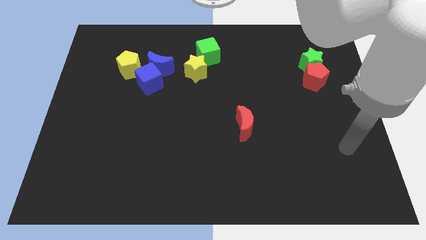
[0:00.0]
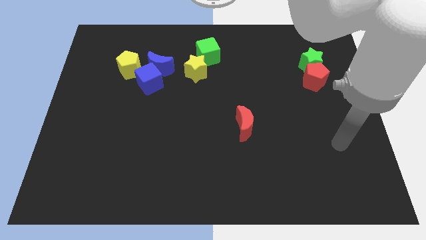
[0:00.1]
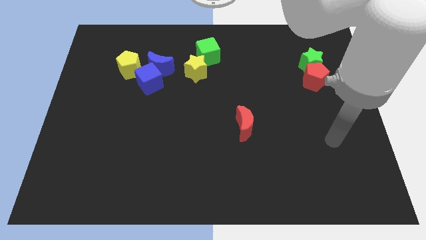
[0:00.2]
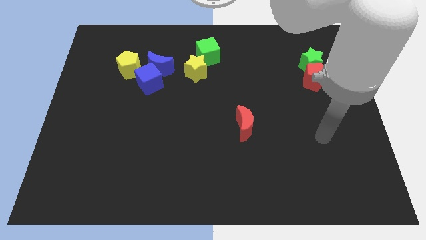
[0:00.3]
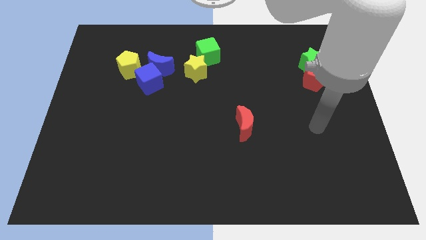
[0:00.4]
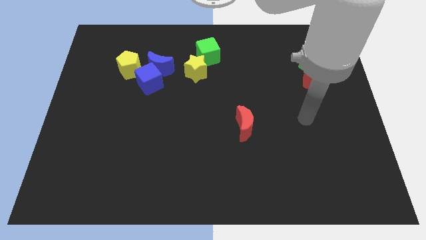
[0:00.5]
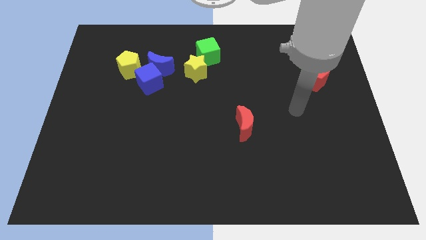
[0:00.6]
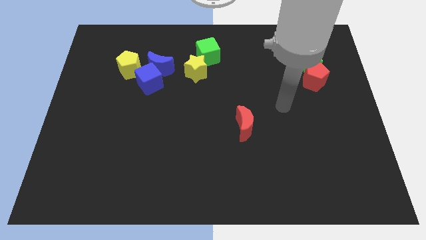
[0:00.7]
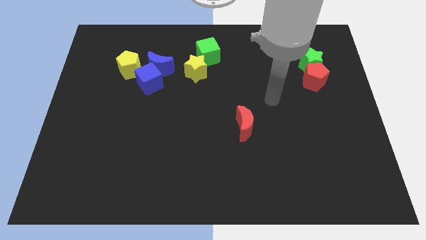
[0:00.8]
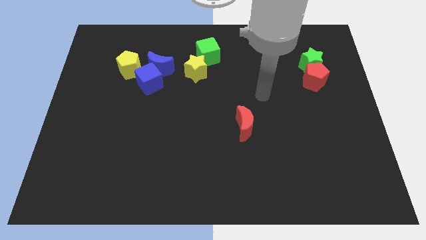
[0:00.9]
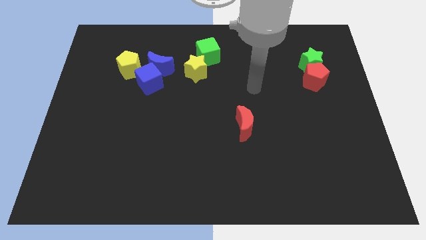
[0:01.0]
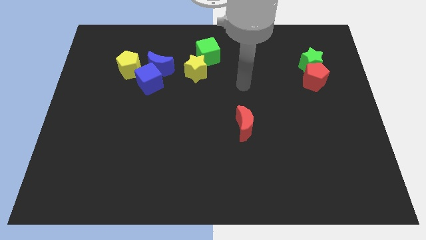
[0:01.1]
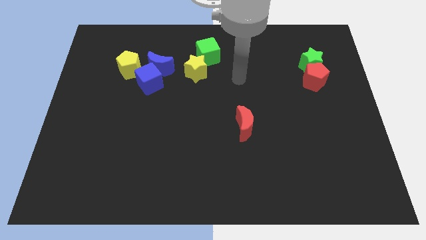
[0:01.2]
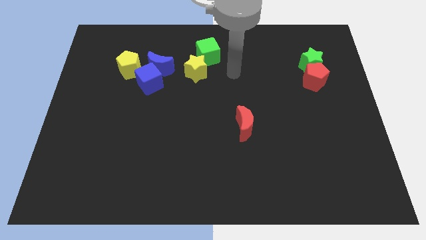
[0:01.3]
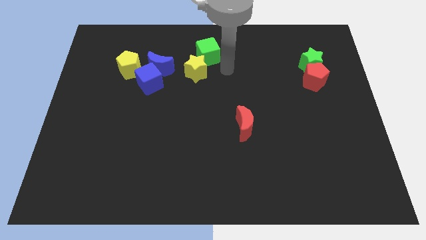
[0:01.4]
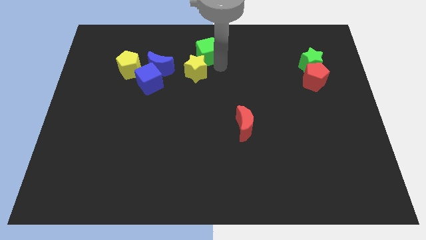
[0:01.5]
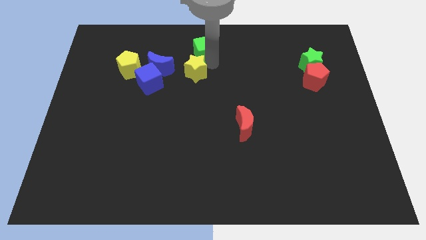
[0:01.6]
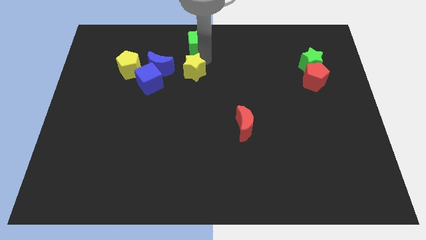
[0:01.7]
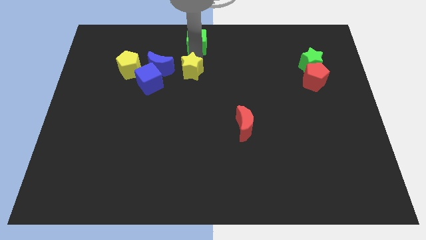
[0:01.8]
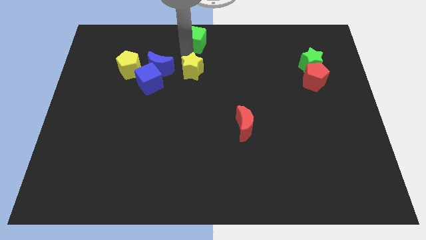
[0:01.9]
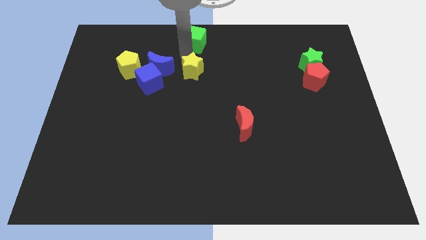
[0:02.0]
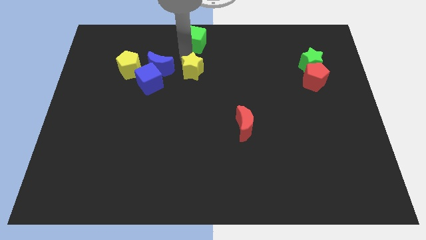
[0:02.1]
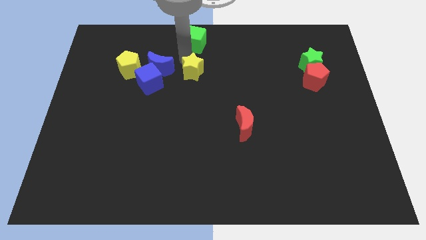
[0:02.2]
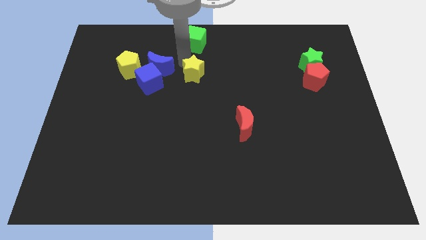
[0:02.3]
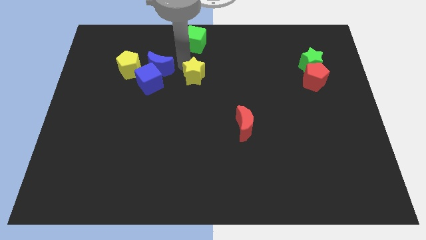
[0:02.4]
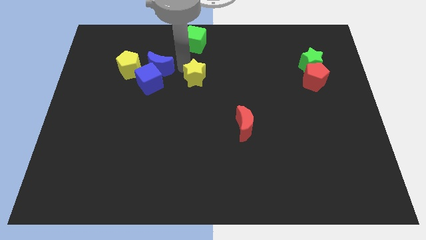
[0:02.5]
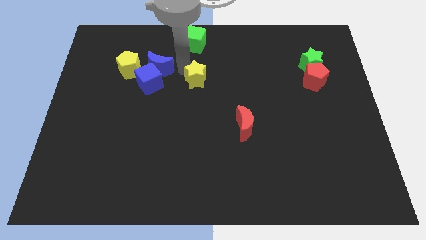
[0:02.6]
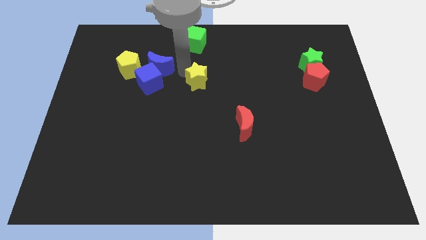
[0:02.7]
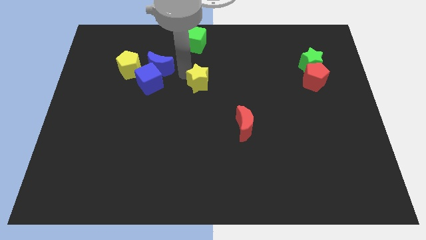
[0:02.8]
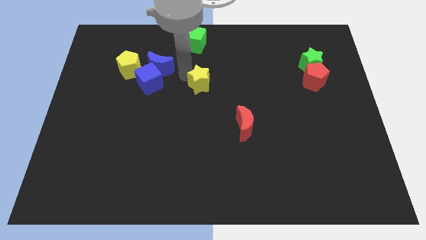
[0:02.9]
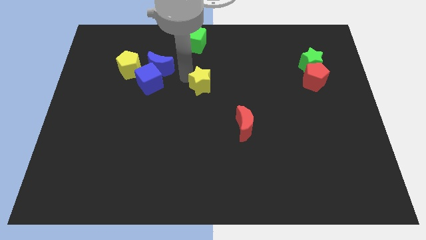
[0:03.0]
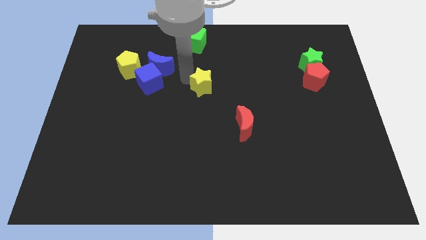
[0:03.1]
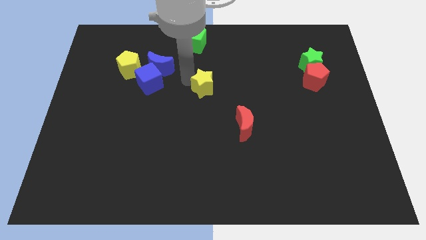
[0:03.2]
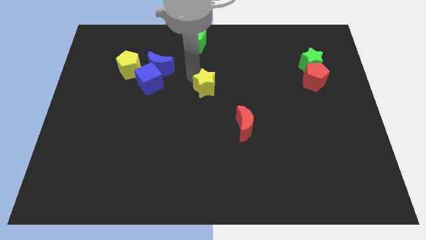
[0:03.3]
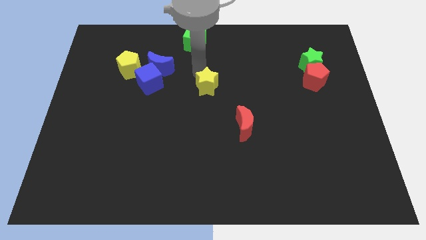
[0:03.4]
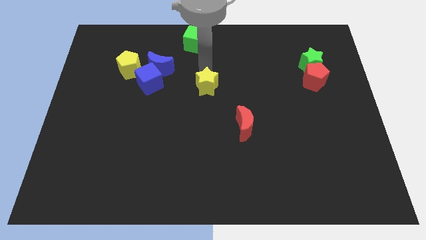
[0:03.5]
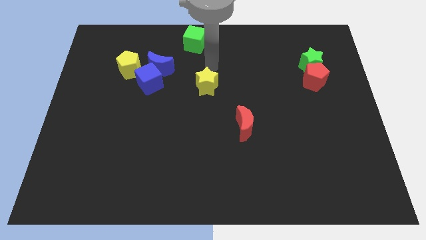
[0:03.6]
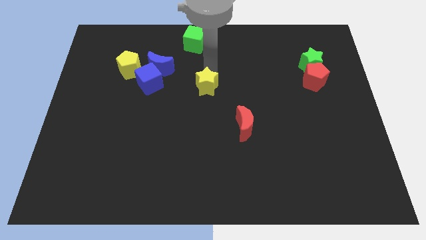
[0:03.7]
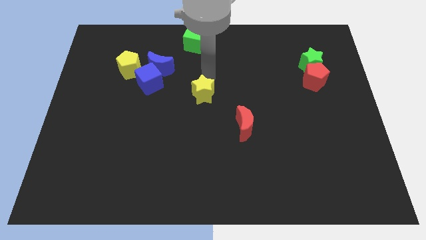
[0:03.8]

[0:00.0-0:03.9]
push the yellow star down a bit

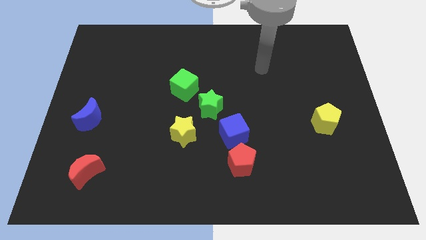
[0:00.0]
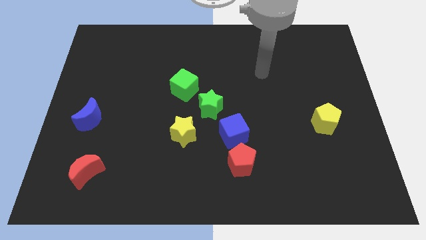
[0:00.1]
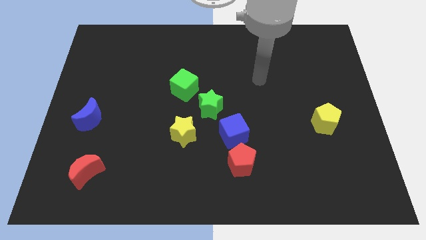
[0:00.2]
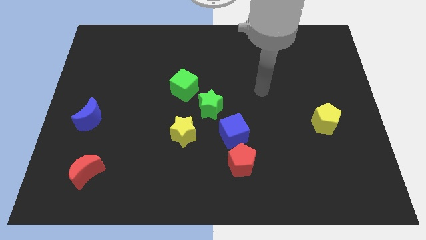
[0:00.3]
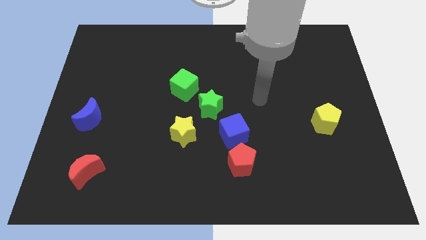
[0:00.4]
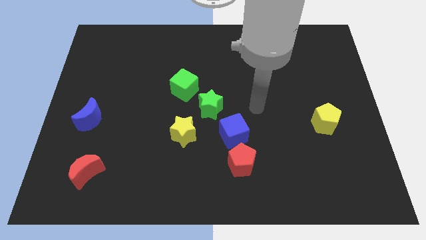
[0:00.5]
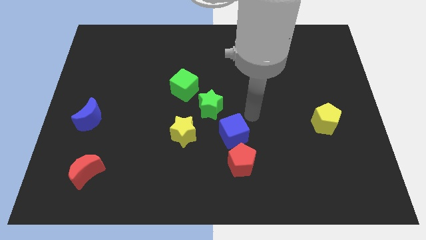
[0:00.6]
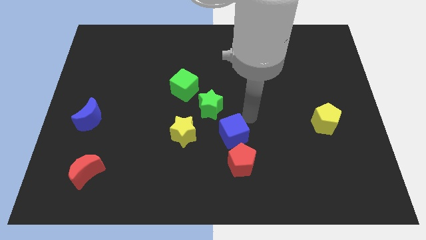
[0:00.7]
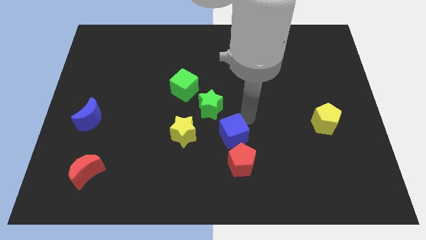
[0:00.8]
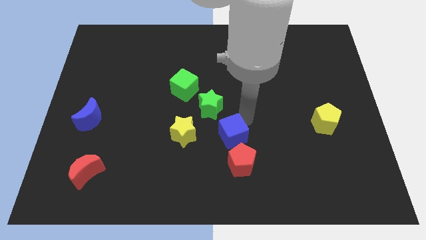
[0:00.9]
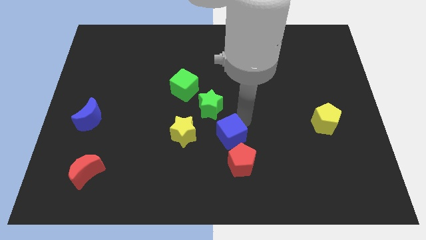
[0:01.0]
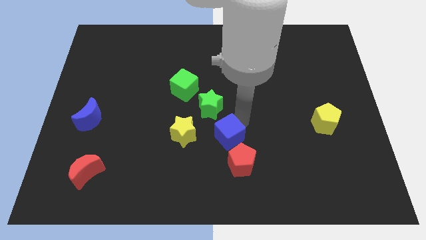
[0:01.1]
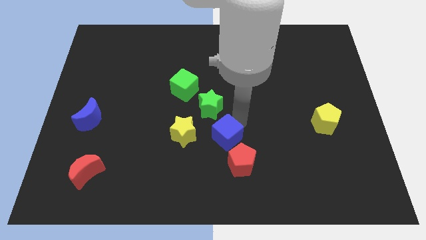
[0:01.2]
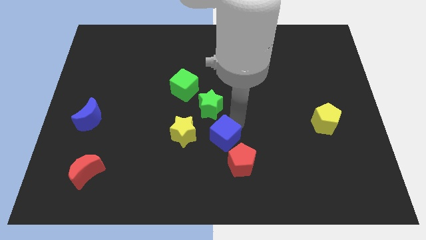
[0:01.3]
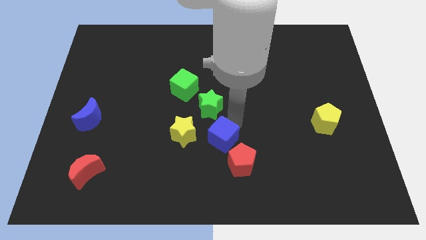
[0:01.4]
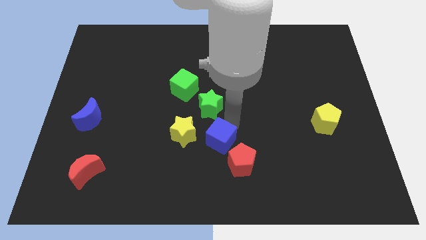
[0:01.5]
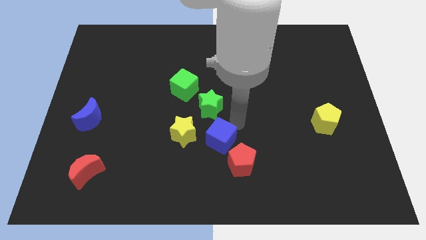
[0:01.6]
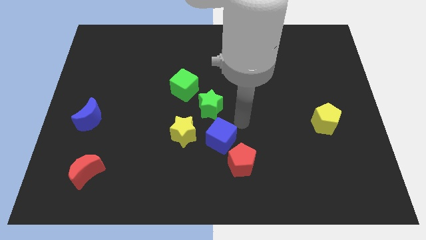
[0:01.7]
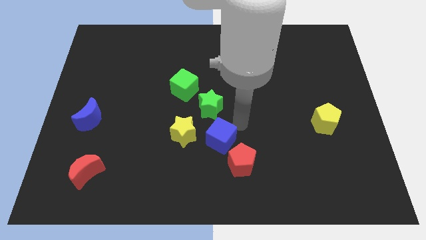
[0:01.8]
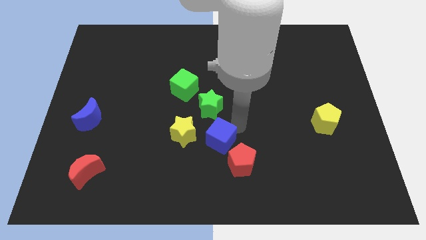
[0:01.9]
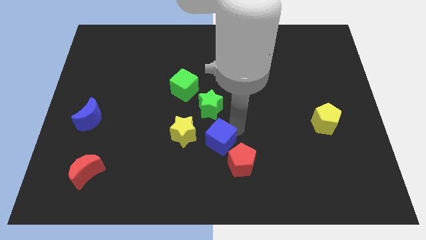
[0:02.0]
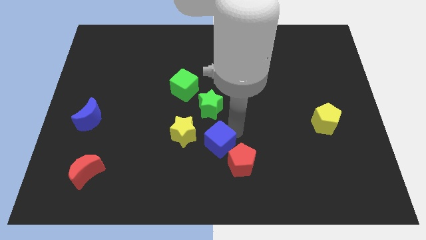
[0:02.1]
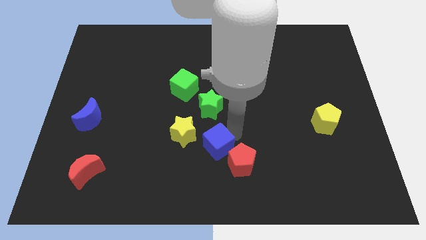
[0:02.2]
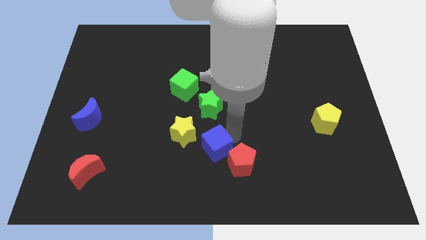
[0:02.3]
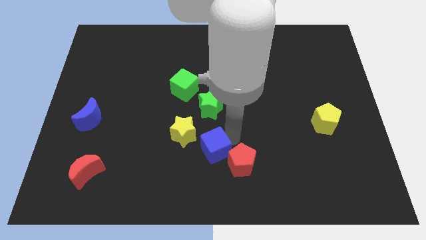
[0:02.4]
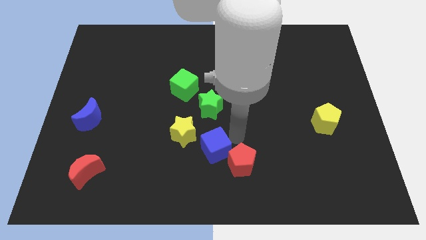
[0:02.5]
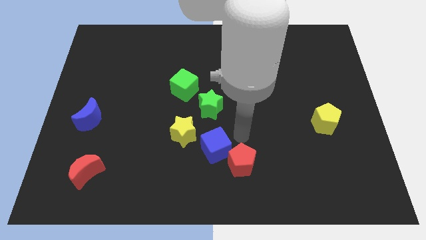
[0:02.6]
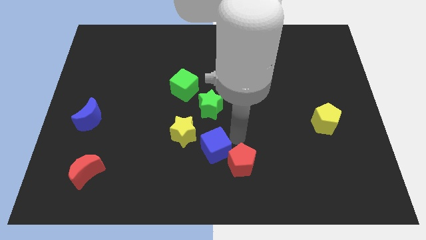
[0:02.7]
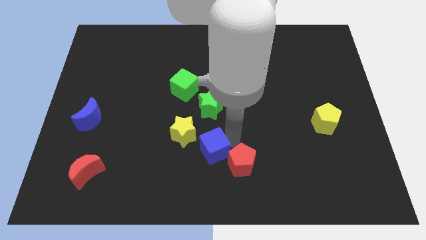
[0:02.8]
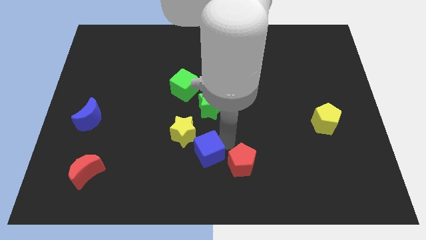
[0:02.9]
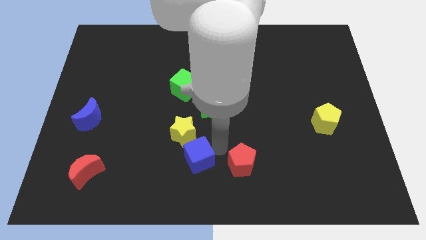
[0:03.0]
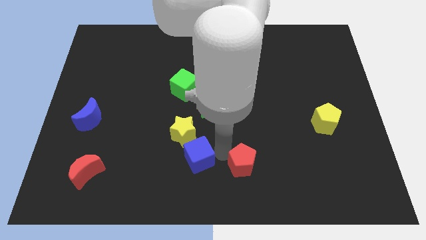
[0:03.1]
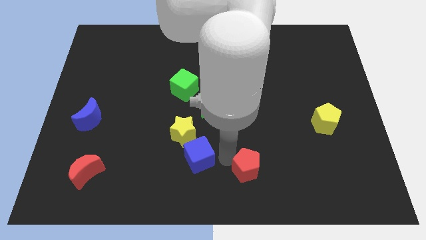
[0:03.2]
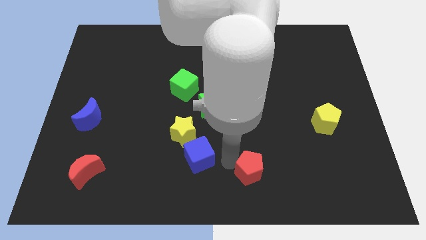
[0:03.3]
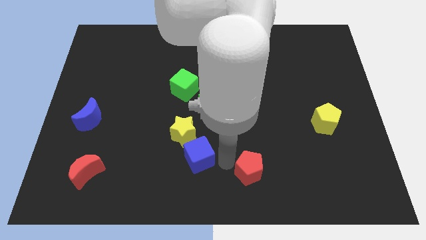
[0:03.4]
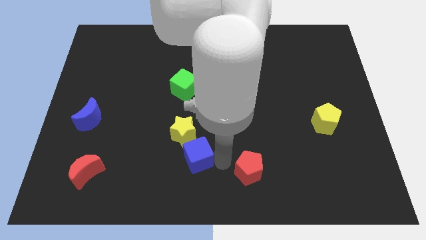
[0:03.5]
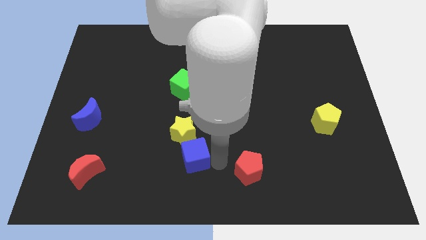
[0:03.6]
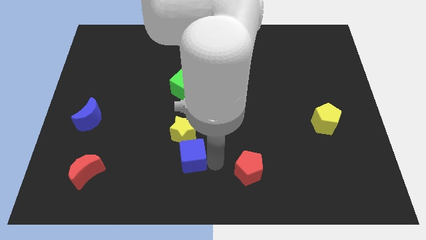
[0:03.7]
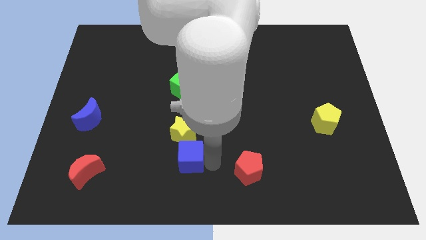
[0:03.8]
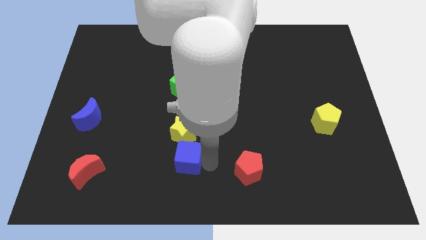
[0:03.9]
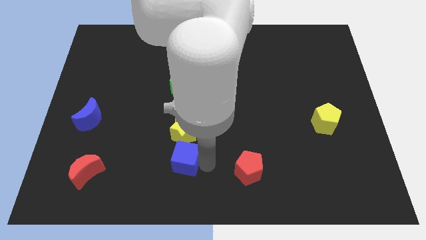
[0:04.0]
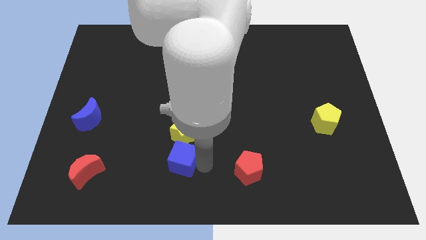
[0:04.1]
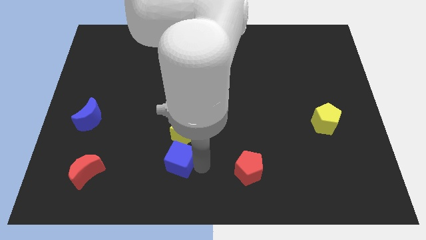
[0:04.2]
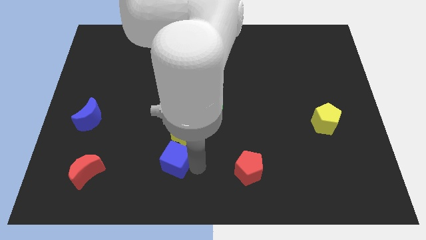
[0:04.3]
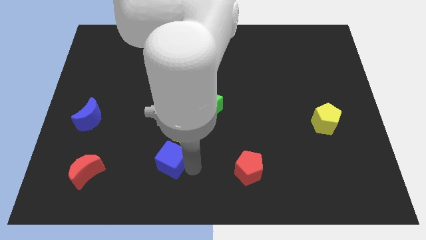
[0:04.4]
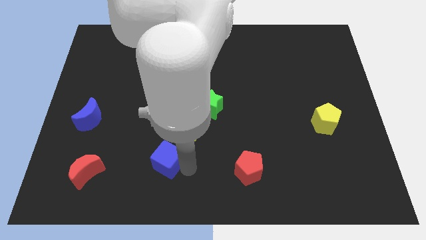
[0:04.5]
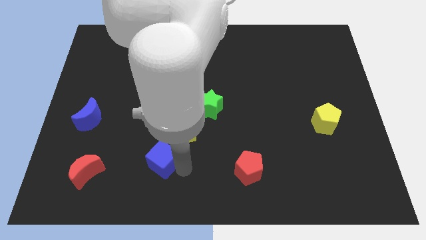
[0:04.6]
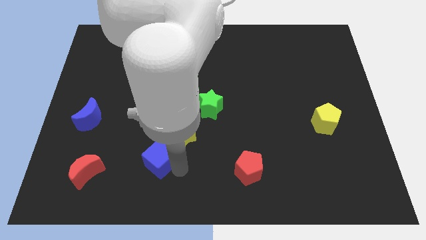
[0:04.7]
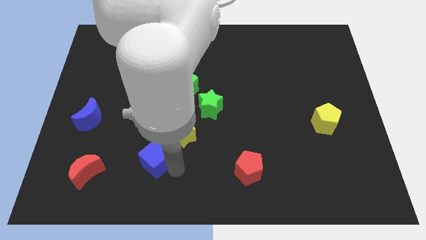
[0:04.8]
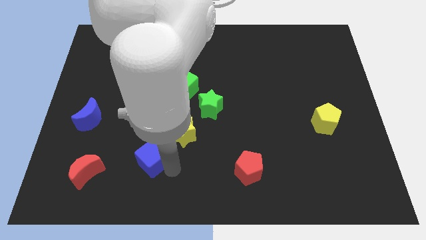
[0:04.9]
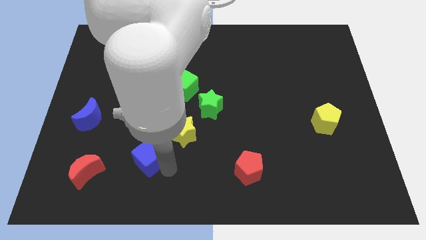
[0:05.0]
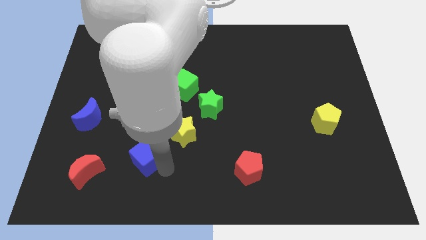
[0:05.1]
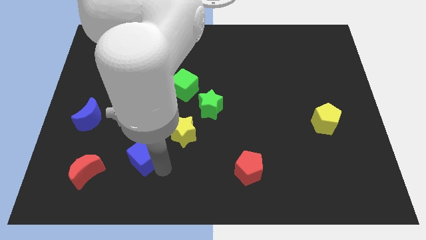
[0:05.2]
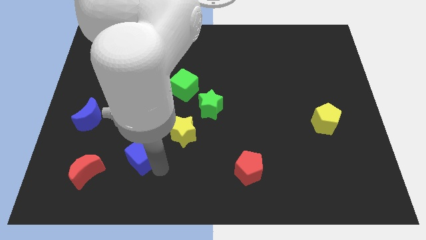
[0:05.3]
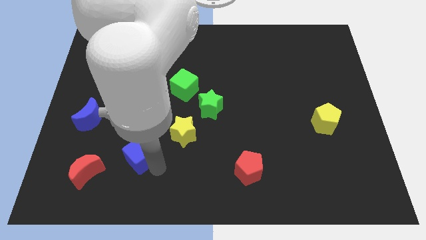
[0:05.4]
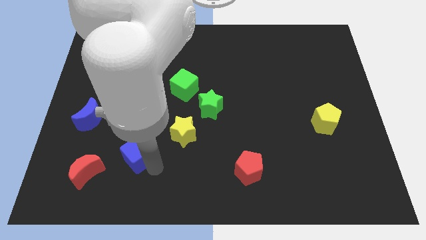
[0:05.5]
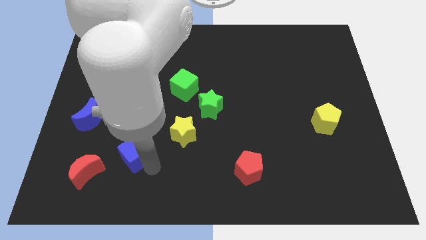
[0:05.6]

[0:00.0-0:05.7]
push the blue cube left
